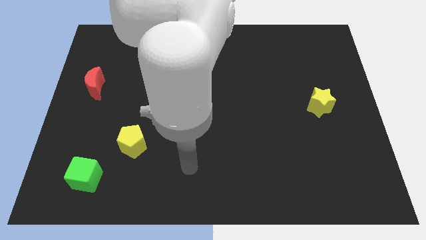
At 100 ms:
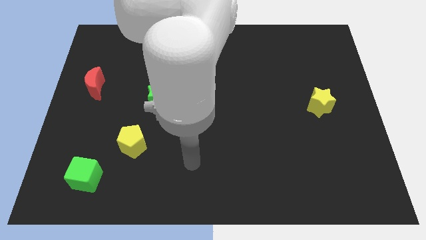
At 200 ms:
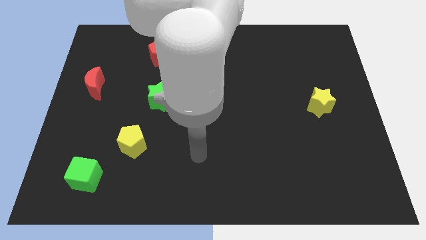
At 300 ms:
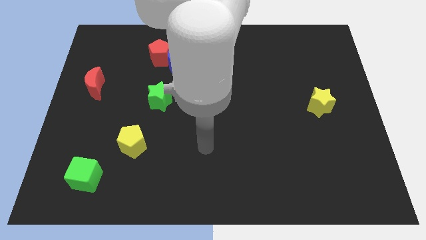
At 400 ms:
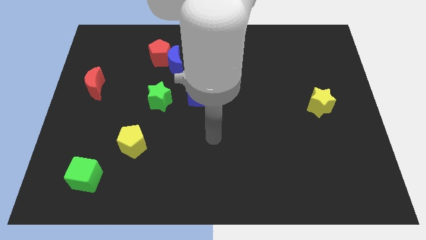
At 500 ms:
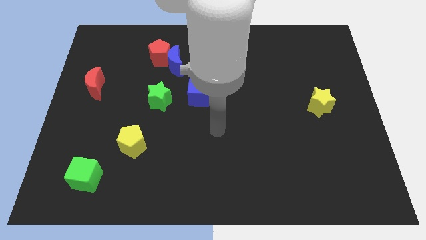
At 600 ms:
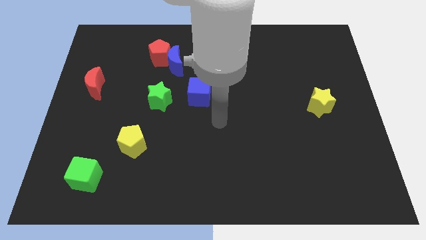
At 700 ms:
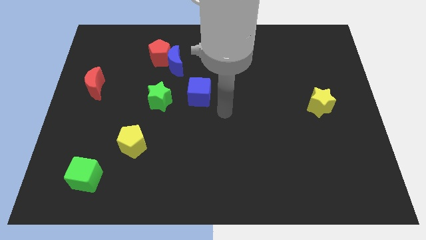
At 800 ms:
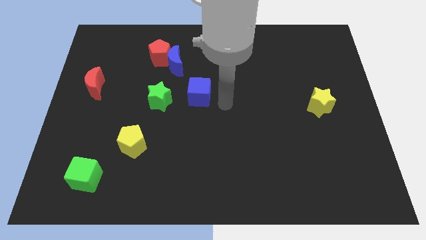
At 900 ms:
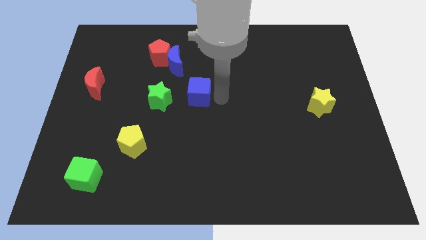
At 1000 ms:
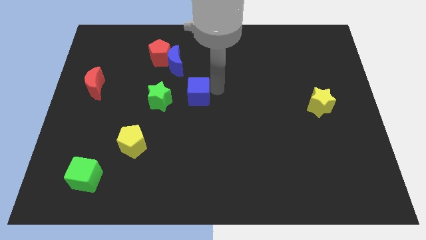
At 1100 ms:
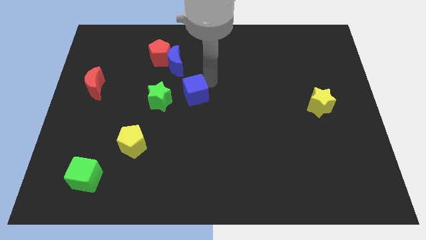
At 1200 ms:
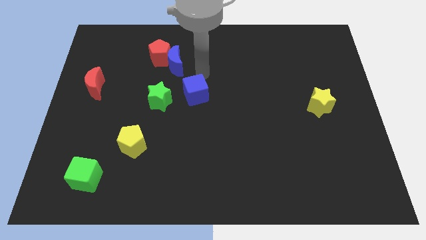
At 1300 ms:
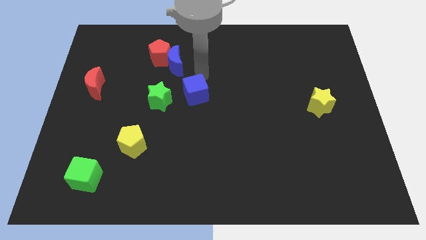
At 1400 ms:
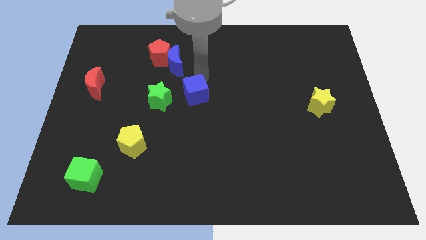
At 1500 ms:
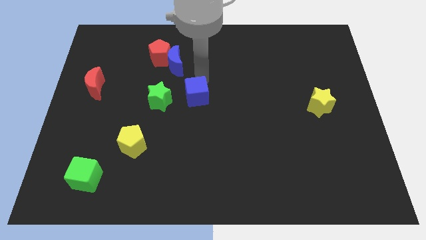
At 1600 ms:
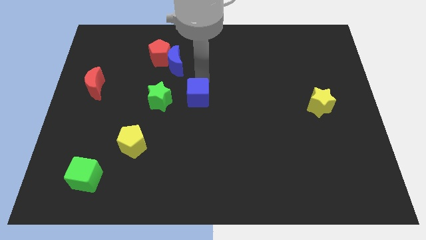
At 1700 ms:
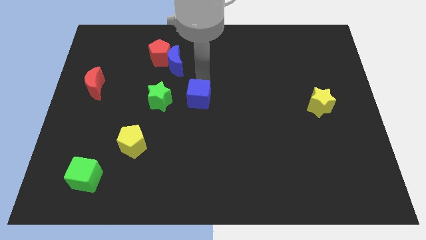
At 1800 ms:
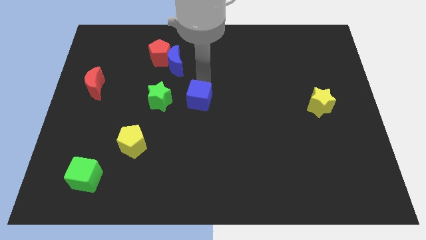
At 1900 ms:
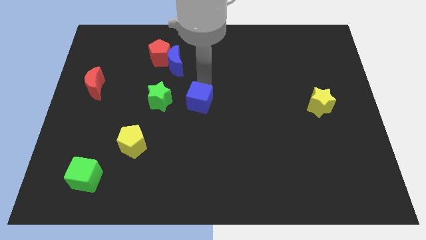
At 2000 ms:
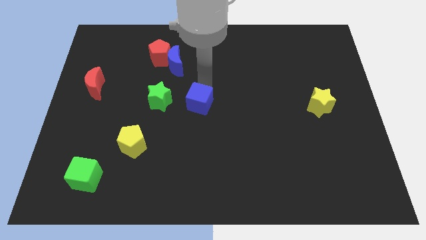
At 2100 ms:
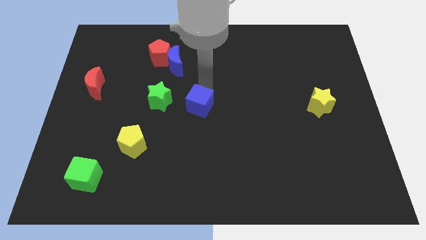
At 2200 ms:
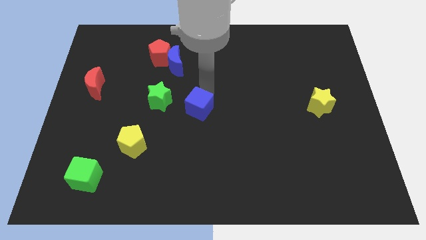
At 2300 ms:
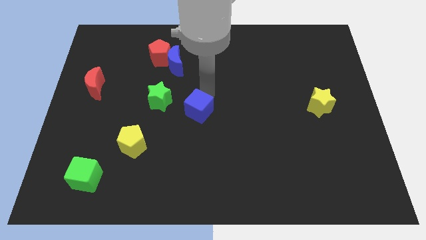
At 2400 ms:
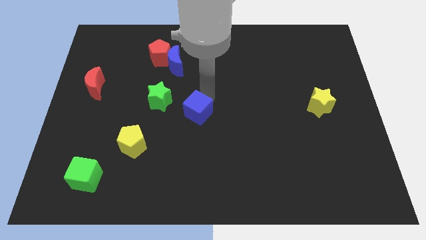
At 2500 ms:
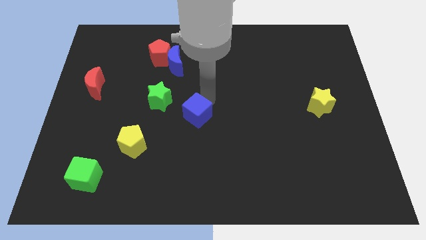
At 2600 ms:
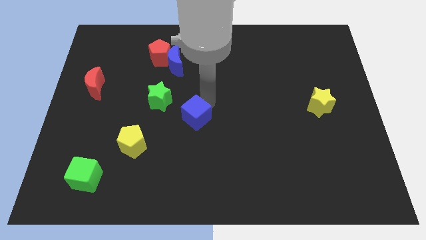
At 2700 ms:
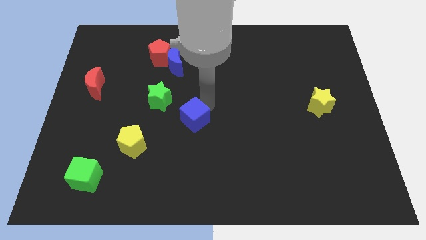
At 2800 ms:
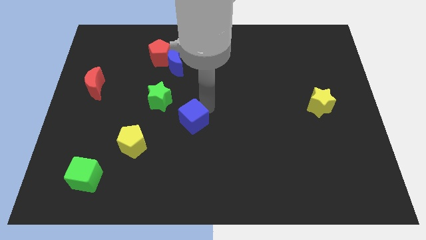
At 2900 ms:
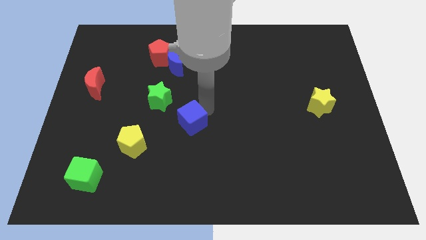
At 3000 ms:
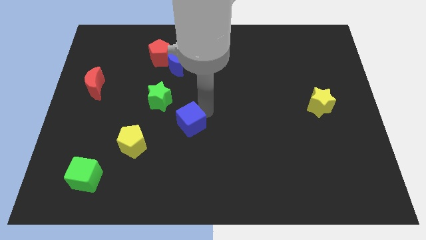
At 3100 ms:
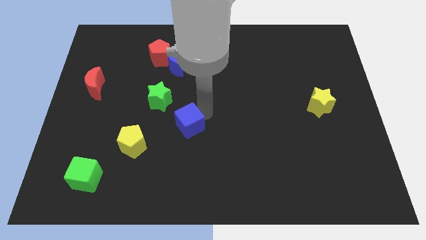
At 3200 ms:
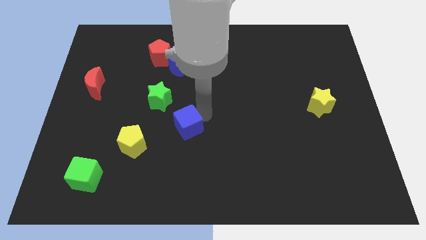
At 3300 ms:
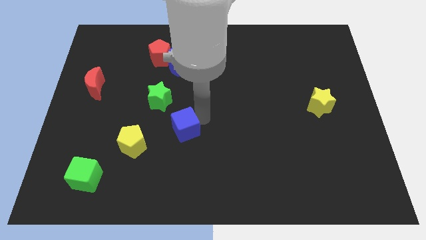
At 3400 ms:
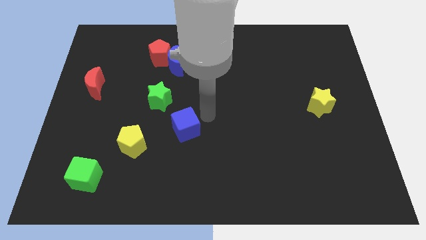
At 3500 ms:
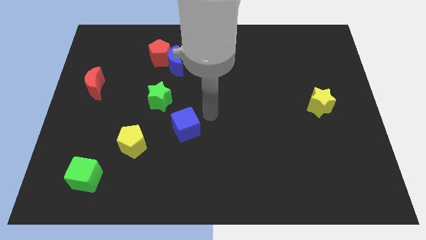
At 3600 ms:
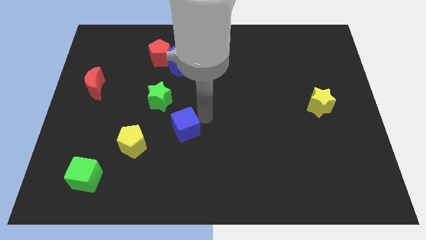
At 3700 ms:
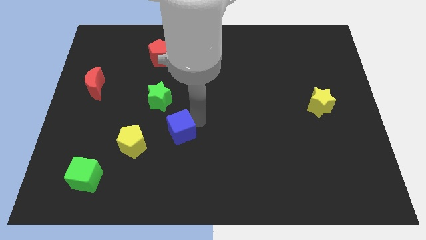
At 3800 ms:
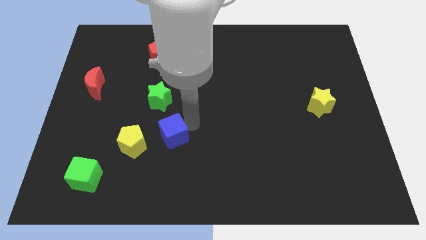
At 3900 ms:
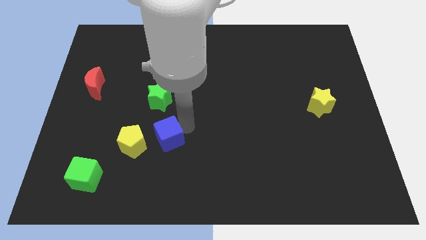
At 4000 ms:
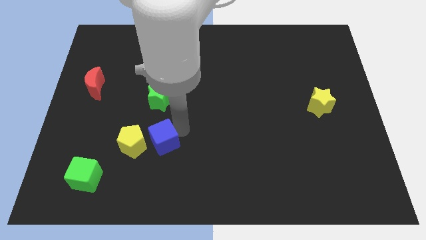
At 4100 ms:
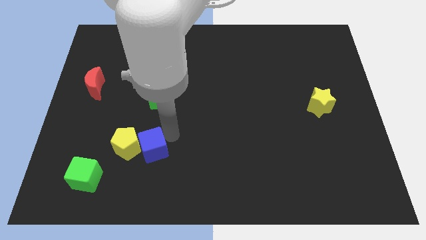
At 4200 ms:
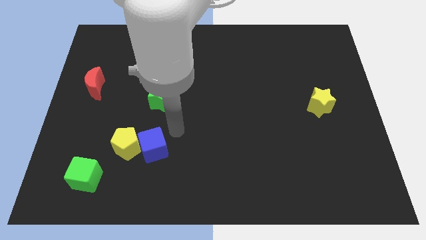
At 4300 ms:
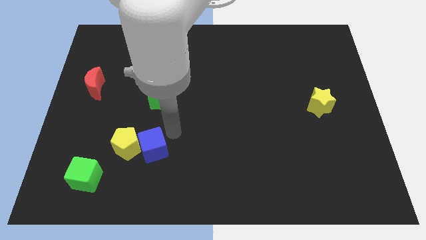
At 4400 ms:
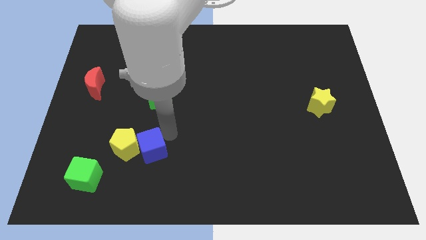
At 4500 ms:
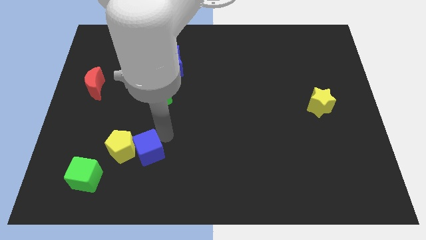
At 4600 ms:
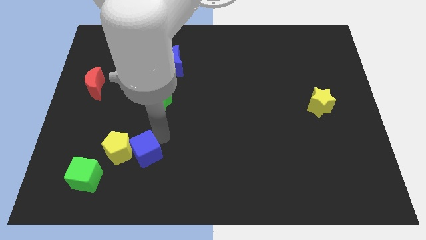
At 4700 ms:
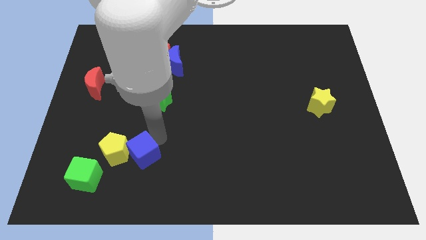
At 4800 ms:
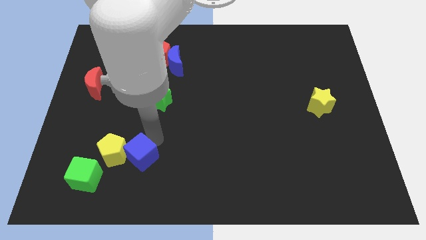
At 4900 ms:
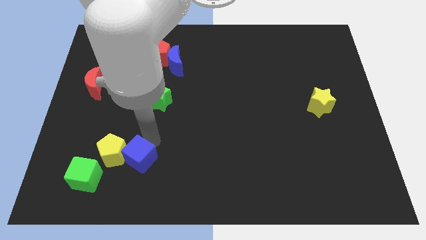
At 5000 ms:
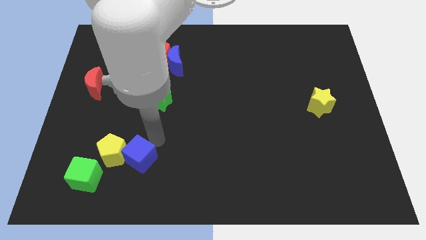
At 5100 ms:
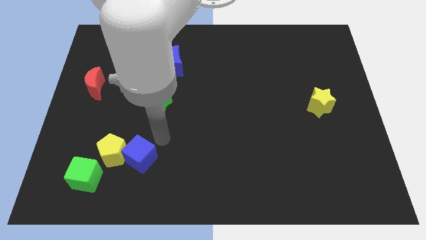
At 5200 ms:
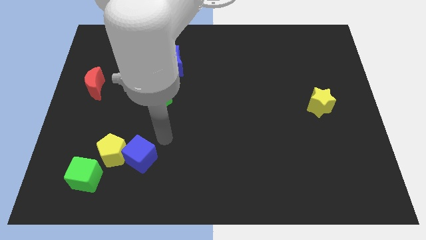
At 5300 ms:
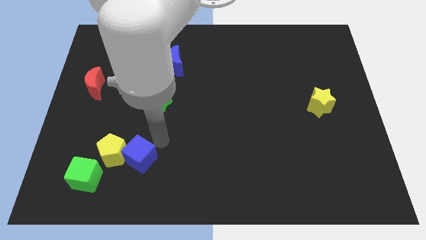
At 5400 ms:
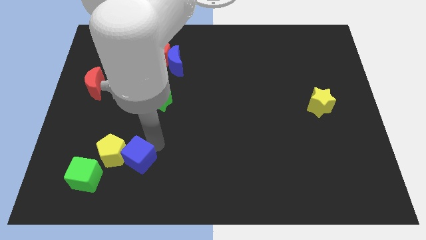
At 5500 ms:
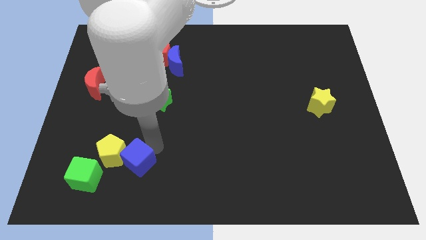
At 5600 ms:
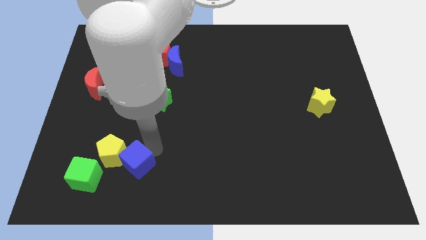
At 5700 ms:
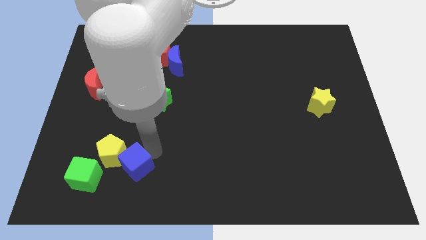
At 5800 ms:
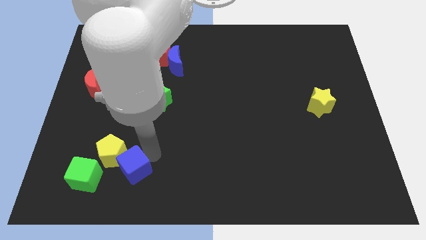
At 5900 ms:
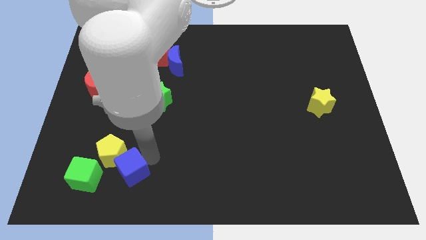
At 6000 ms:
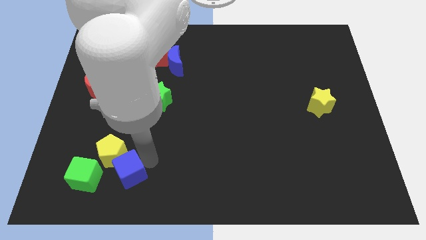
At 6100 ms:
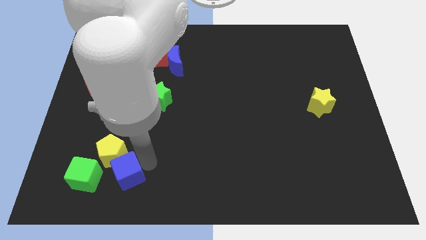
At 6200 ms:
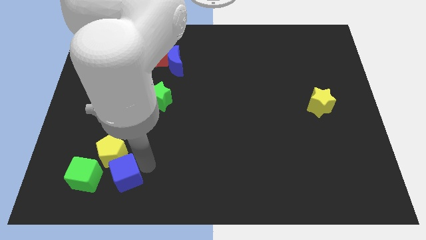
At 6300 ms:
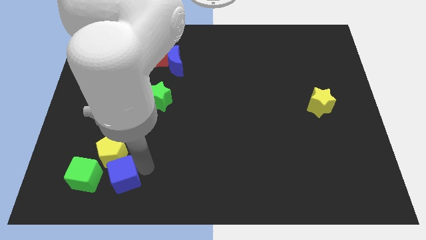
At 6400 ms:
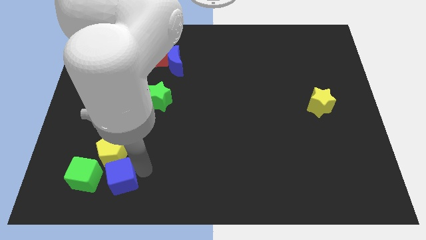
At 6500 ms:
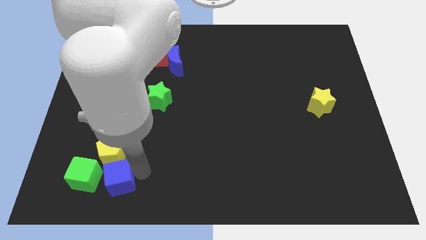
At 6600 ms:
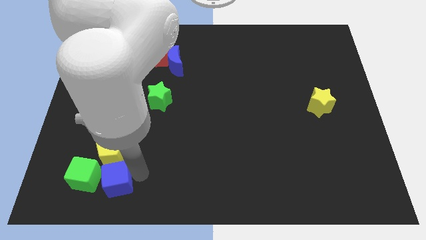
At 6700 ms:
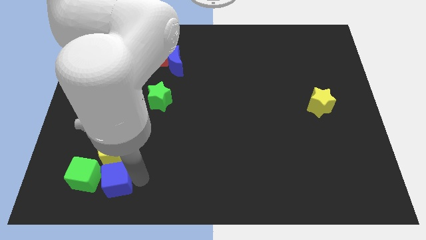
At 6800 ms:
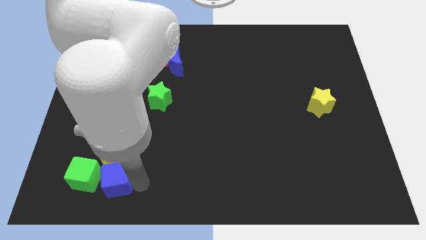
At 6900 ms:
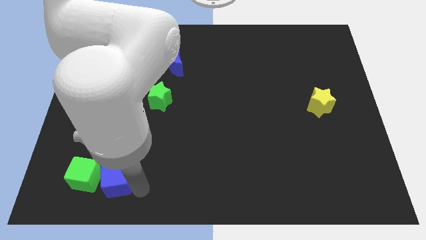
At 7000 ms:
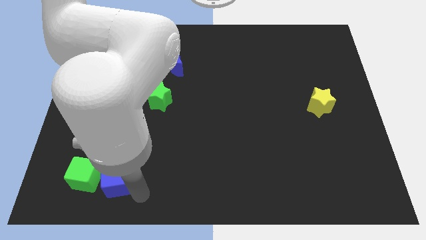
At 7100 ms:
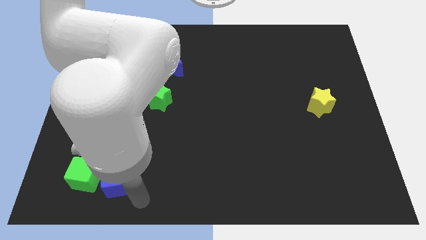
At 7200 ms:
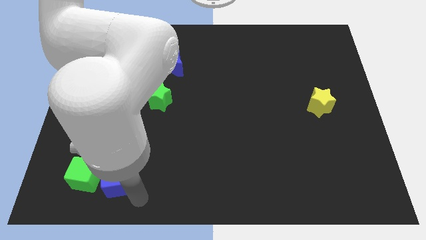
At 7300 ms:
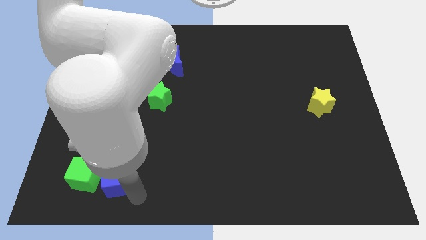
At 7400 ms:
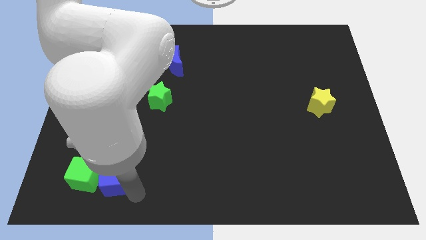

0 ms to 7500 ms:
move the blue cube to the green cube
